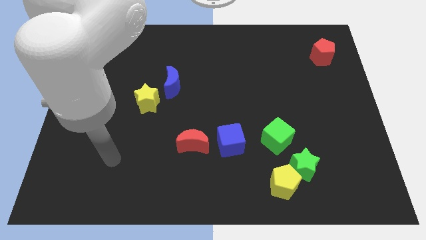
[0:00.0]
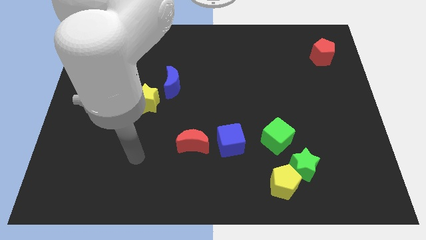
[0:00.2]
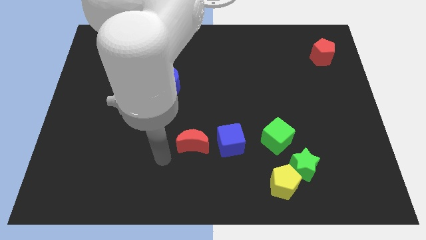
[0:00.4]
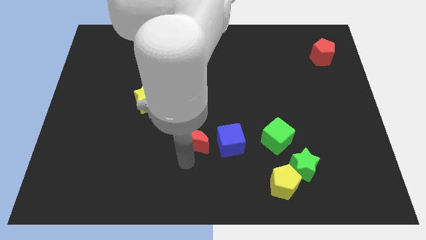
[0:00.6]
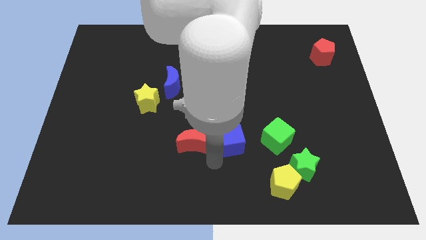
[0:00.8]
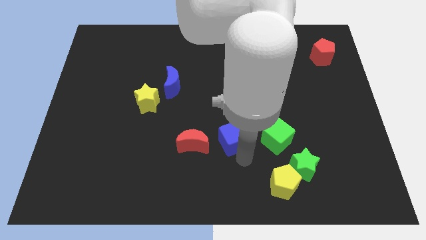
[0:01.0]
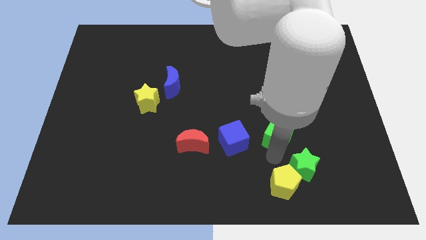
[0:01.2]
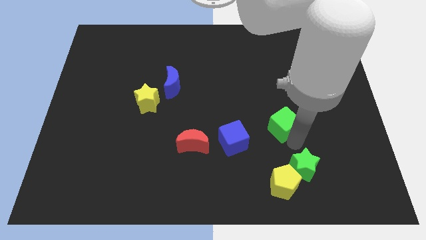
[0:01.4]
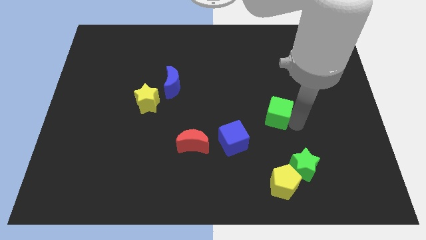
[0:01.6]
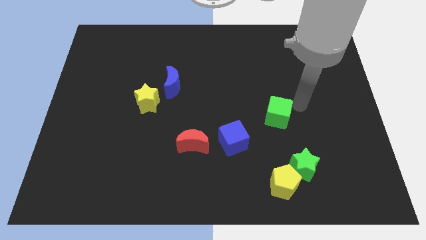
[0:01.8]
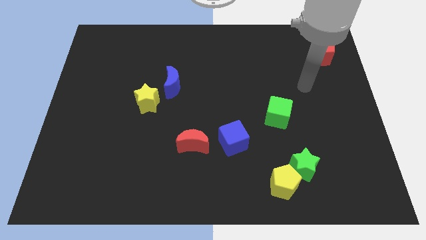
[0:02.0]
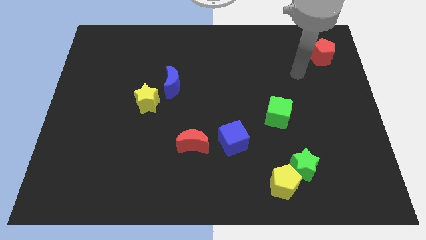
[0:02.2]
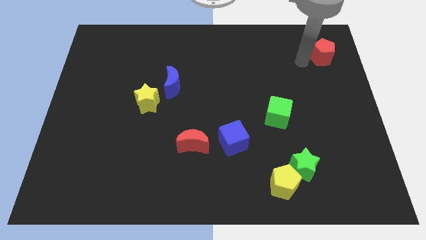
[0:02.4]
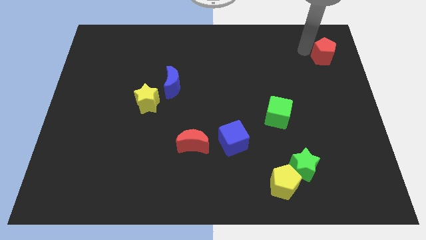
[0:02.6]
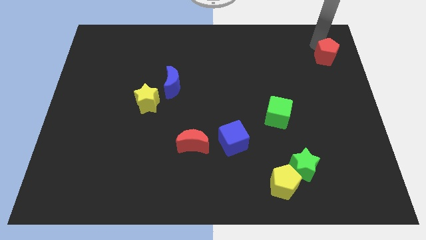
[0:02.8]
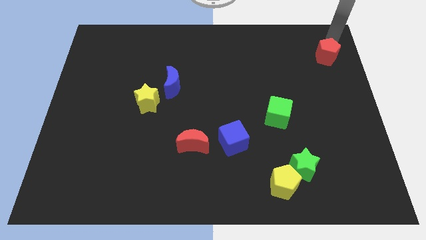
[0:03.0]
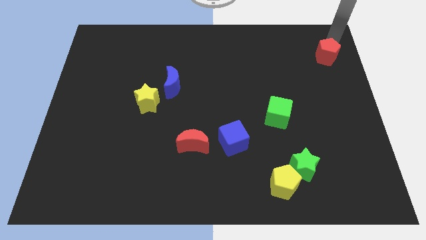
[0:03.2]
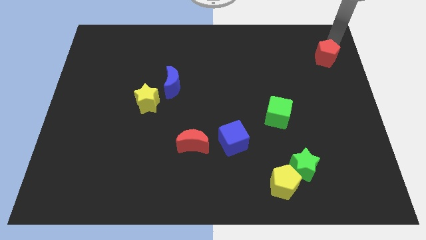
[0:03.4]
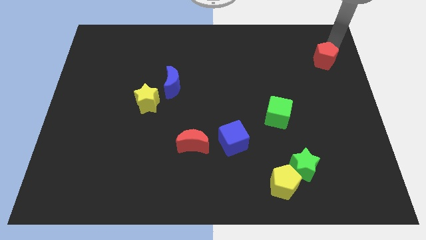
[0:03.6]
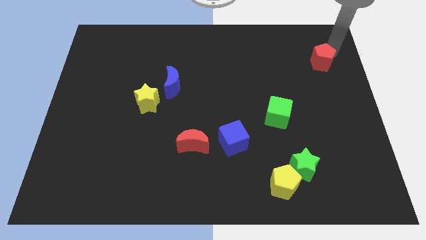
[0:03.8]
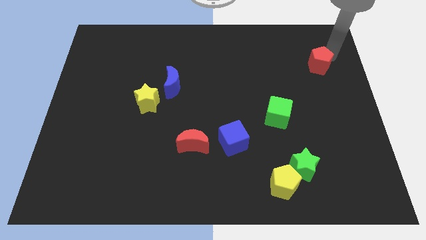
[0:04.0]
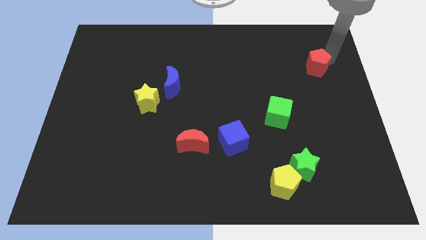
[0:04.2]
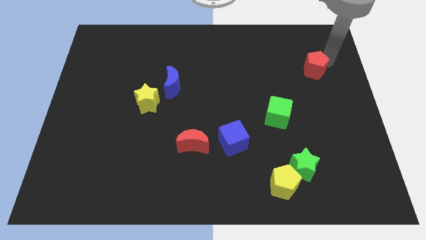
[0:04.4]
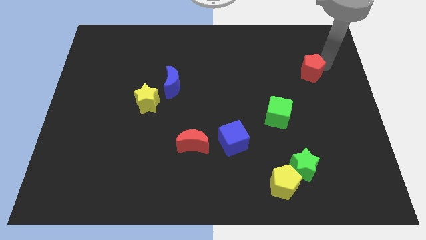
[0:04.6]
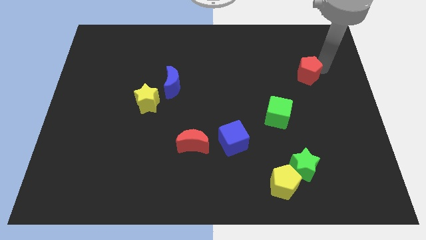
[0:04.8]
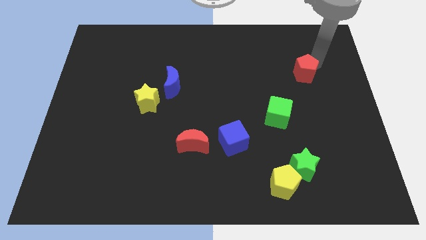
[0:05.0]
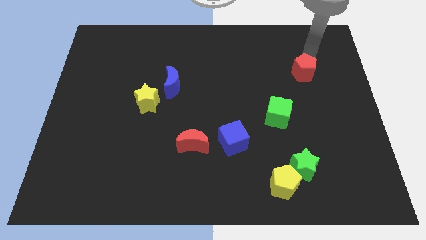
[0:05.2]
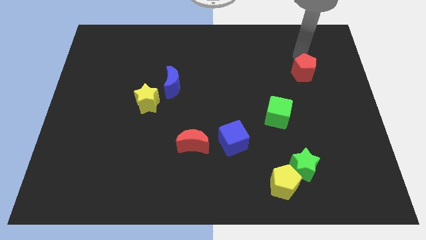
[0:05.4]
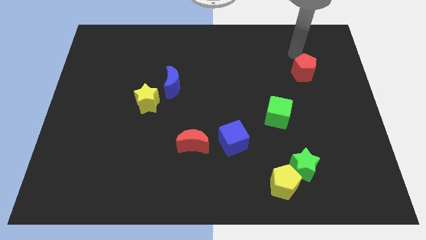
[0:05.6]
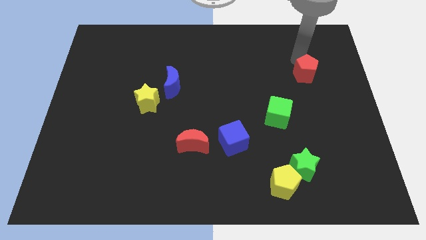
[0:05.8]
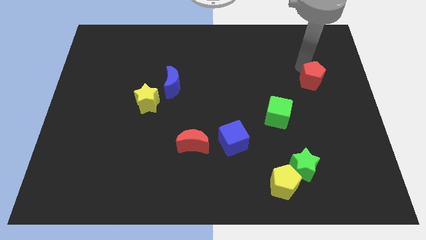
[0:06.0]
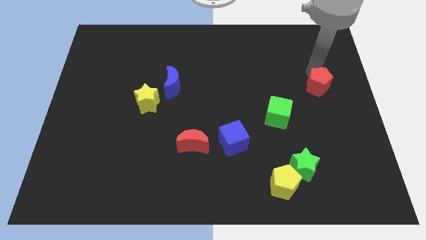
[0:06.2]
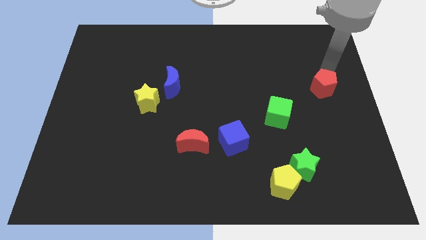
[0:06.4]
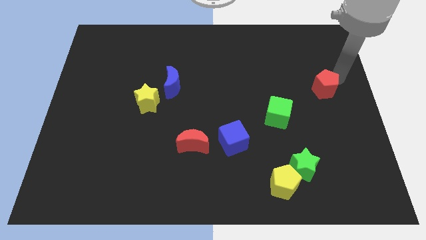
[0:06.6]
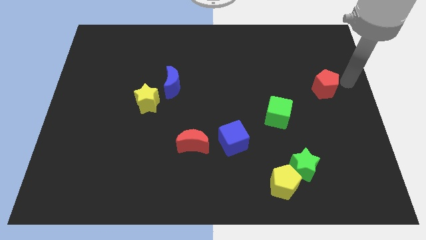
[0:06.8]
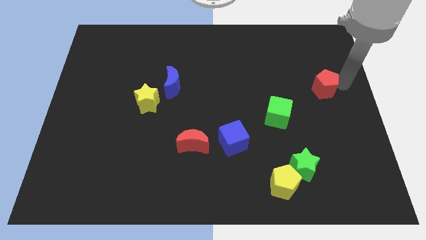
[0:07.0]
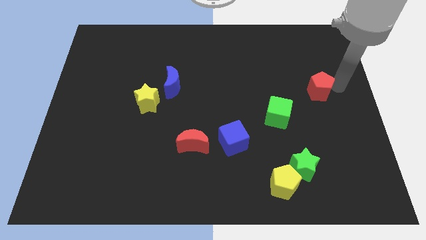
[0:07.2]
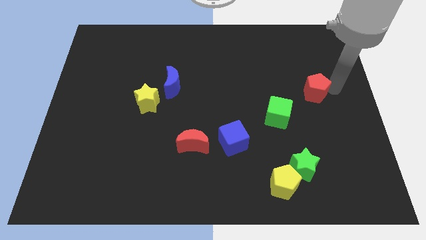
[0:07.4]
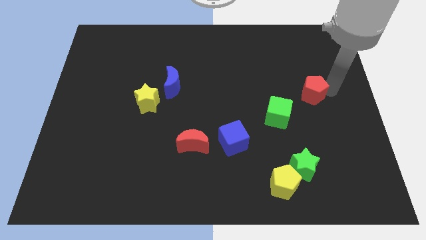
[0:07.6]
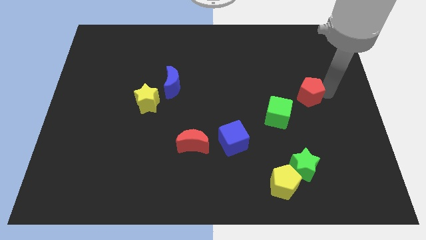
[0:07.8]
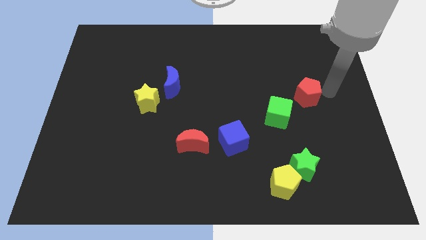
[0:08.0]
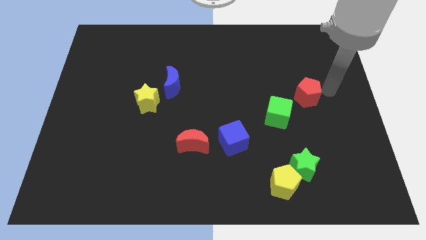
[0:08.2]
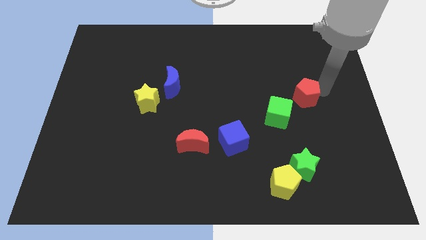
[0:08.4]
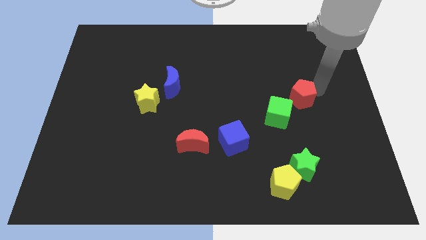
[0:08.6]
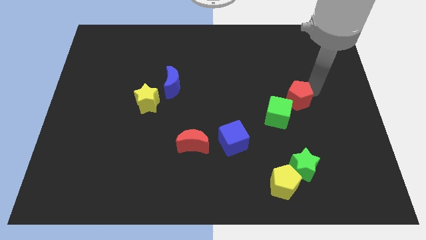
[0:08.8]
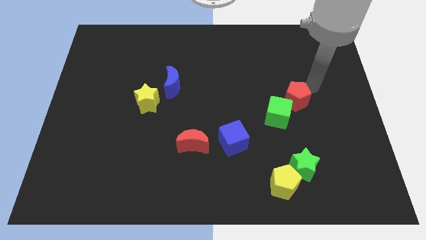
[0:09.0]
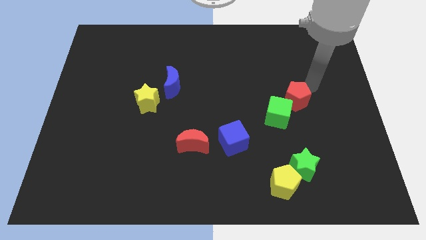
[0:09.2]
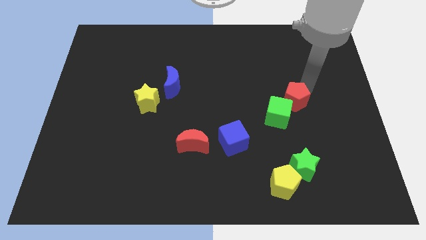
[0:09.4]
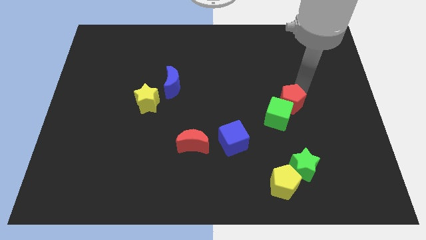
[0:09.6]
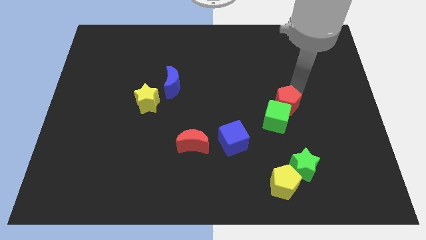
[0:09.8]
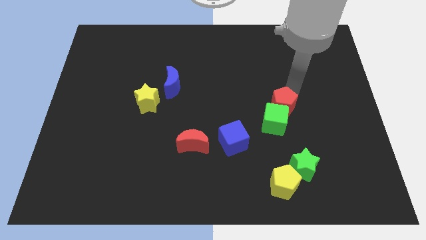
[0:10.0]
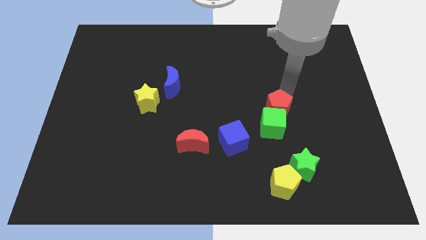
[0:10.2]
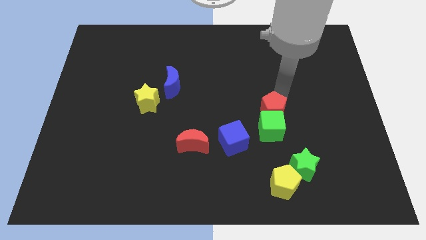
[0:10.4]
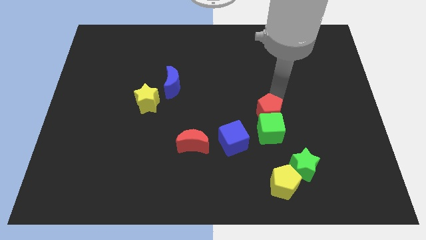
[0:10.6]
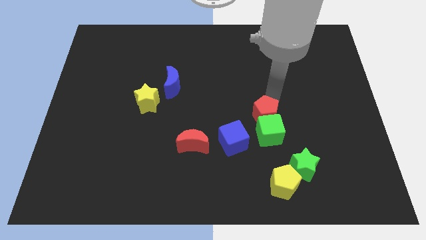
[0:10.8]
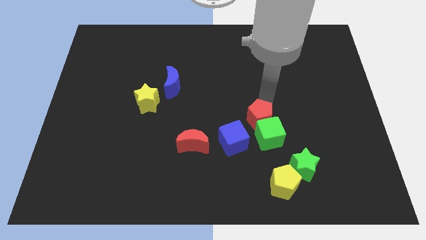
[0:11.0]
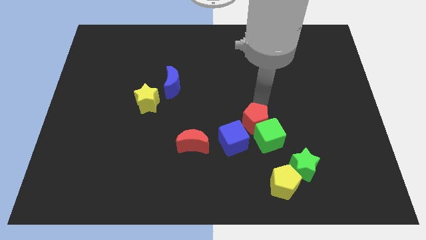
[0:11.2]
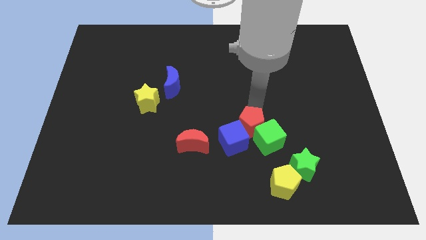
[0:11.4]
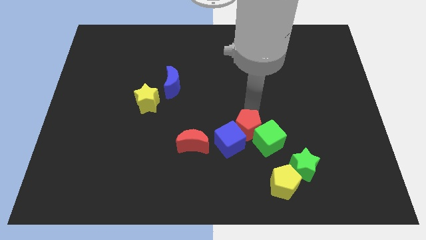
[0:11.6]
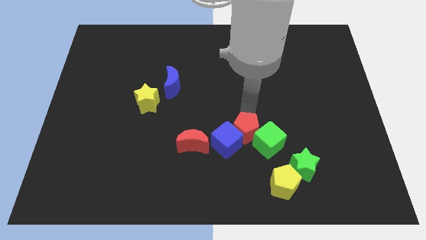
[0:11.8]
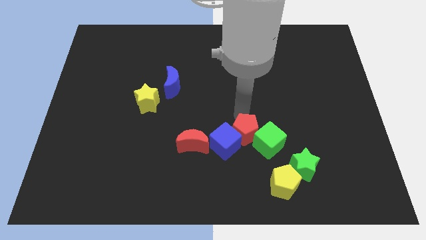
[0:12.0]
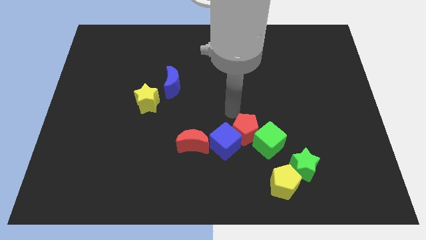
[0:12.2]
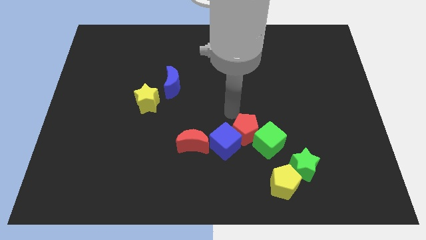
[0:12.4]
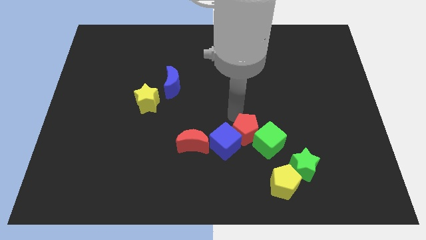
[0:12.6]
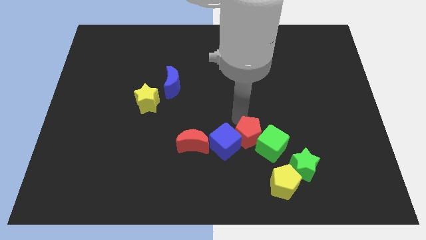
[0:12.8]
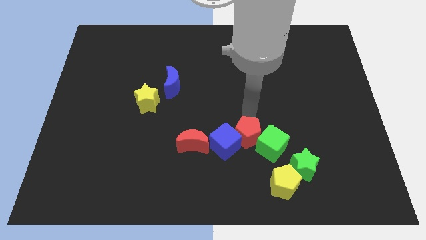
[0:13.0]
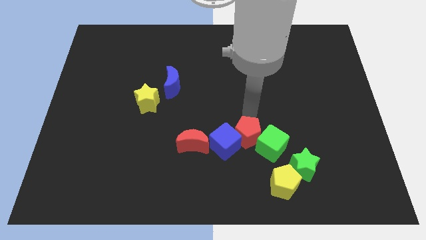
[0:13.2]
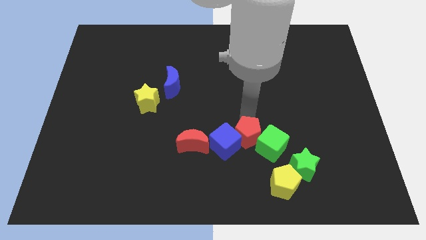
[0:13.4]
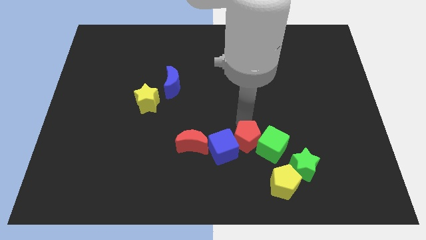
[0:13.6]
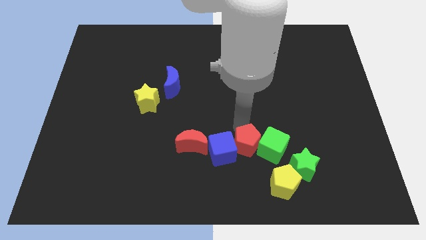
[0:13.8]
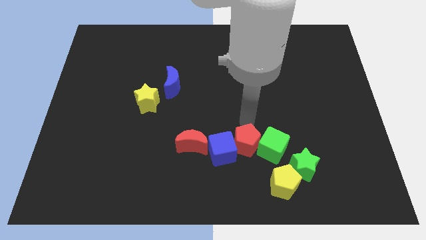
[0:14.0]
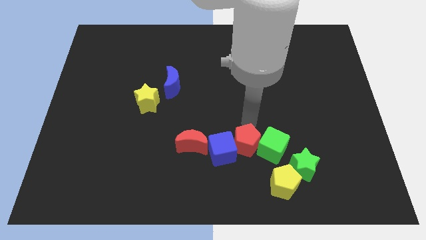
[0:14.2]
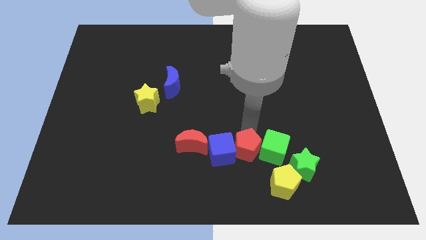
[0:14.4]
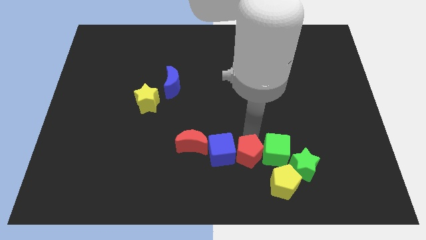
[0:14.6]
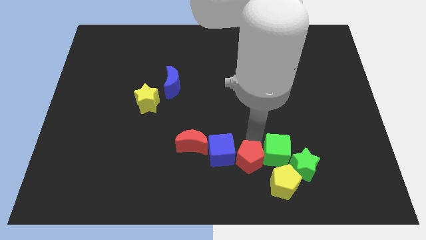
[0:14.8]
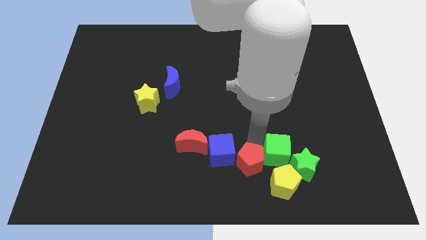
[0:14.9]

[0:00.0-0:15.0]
slide the red pentagon to the left of the yellow pentagon
